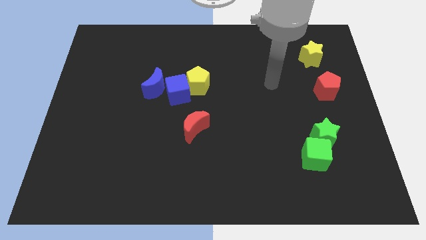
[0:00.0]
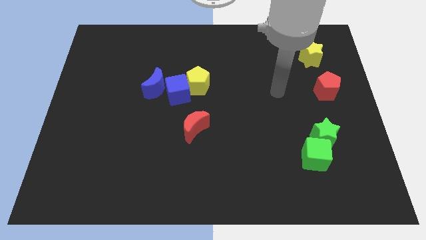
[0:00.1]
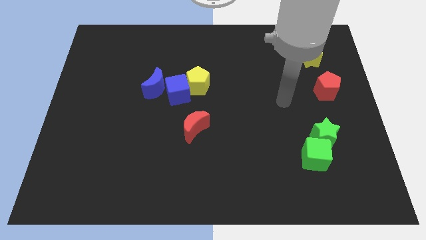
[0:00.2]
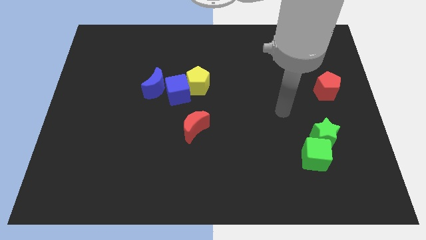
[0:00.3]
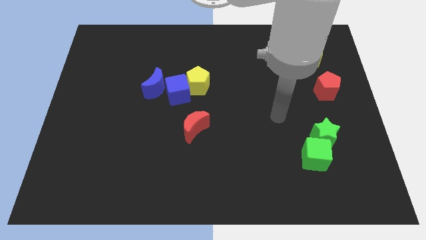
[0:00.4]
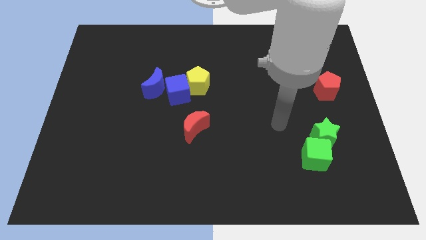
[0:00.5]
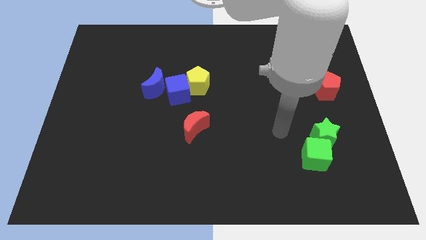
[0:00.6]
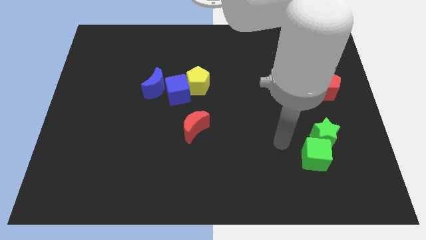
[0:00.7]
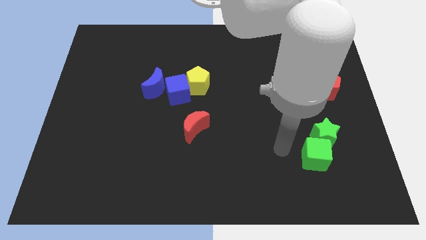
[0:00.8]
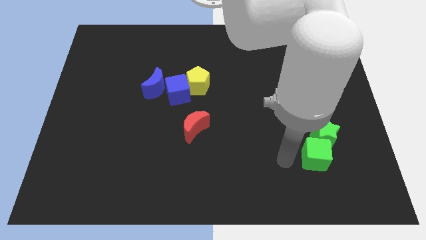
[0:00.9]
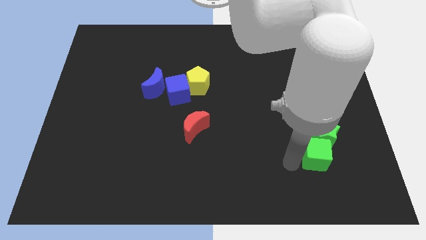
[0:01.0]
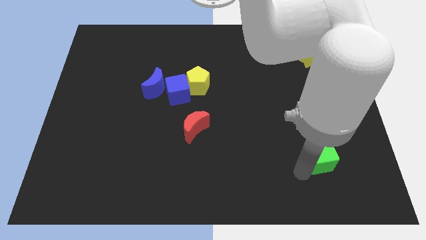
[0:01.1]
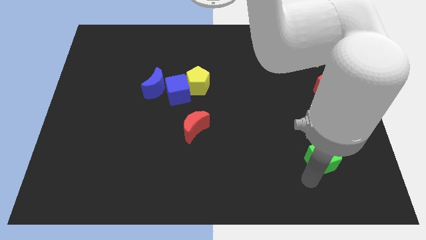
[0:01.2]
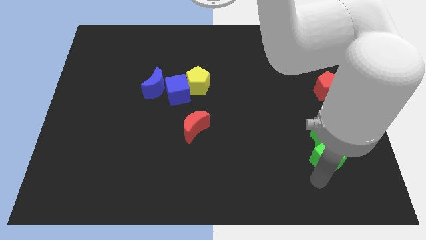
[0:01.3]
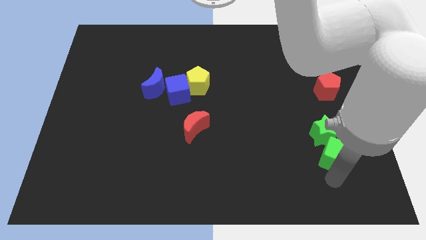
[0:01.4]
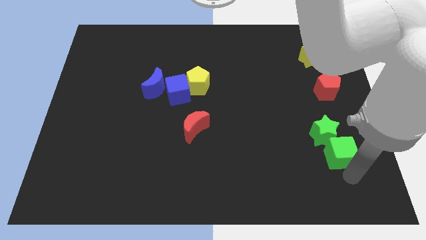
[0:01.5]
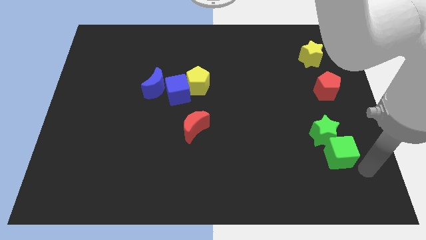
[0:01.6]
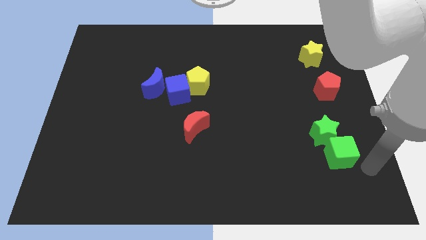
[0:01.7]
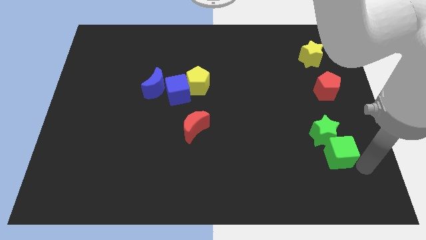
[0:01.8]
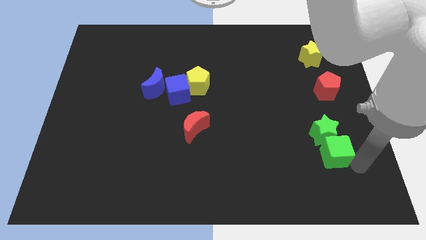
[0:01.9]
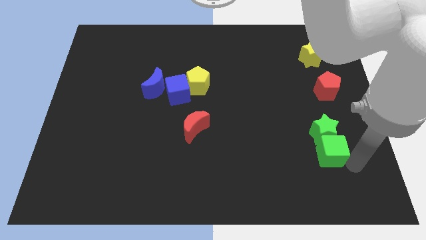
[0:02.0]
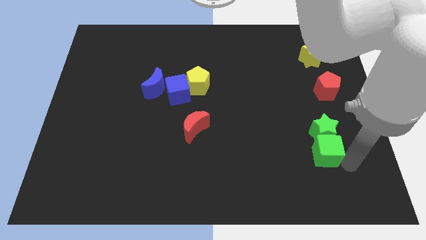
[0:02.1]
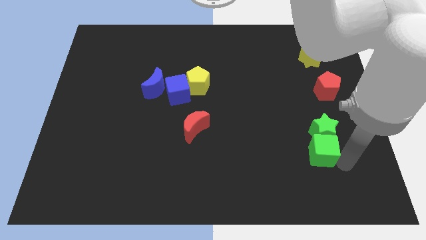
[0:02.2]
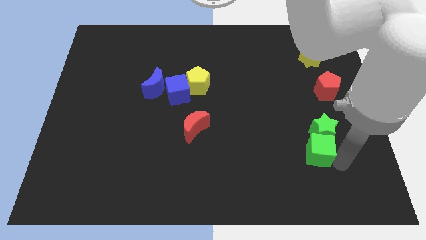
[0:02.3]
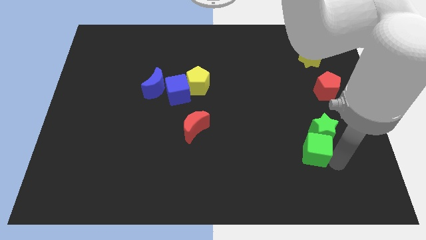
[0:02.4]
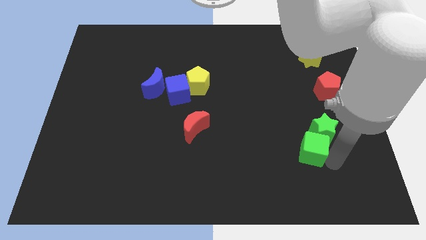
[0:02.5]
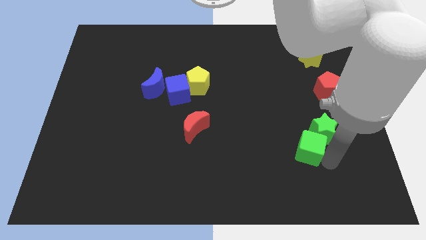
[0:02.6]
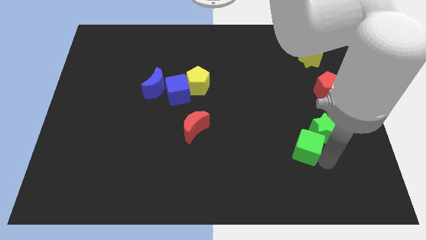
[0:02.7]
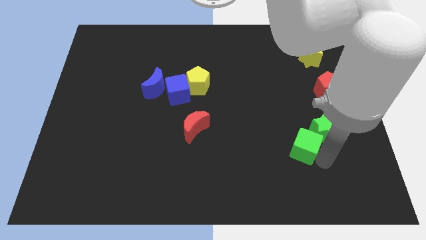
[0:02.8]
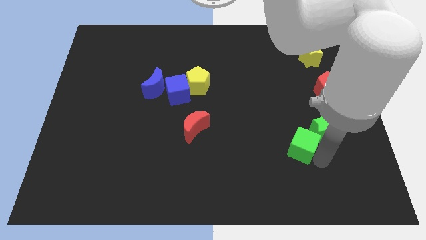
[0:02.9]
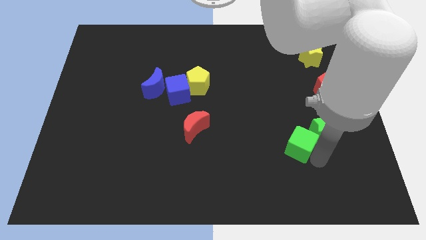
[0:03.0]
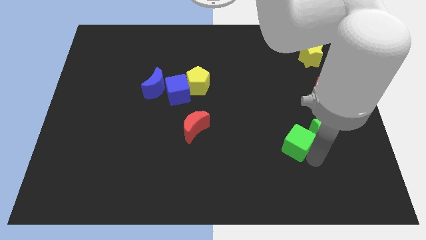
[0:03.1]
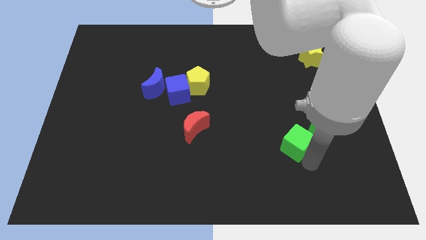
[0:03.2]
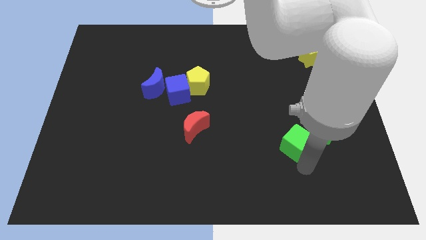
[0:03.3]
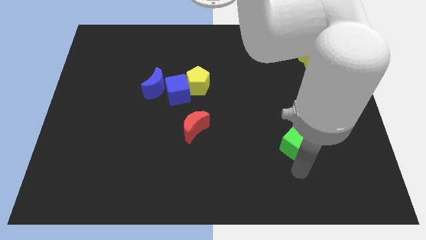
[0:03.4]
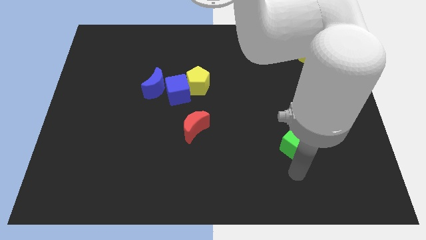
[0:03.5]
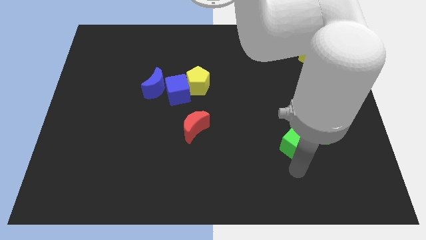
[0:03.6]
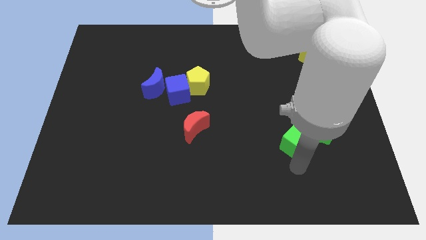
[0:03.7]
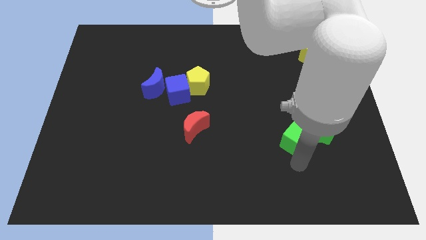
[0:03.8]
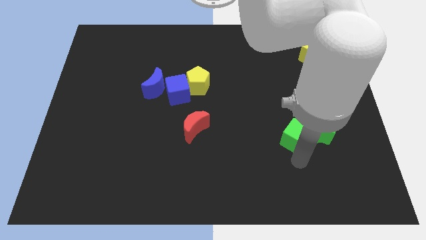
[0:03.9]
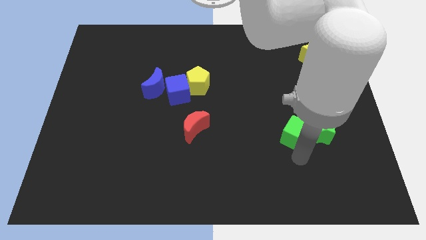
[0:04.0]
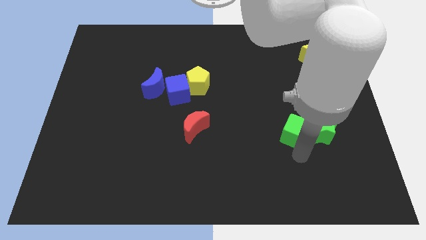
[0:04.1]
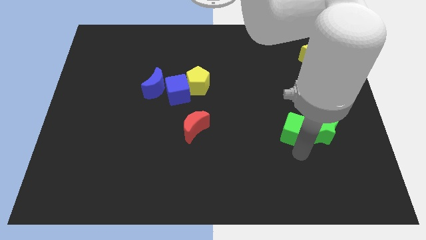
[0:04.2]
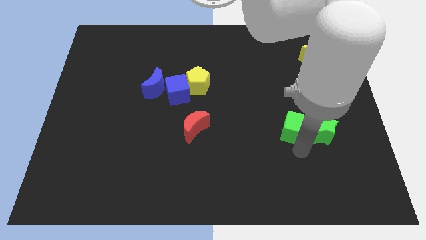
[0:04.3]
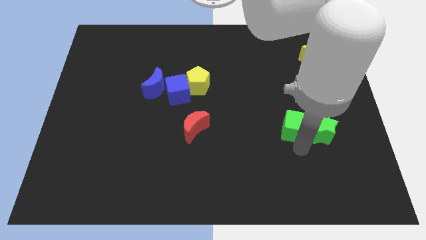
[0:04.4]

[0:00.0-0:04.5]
slide the green cube slightly up

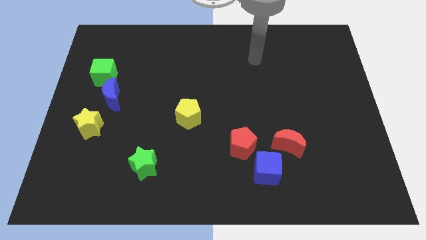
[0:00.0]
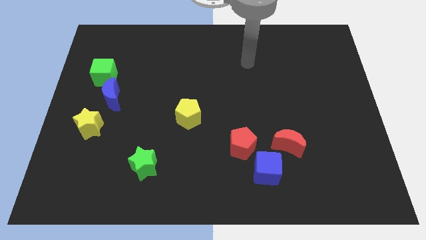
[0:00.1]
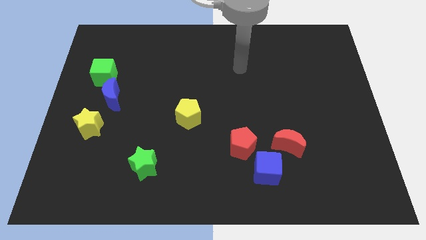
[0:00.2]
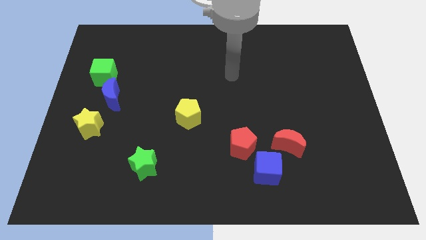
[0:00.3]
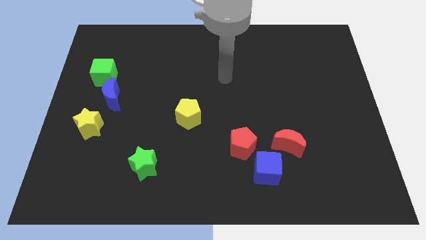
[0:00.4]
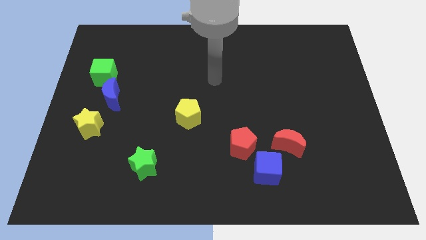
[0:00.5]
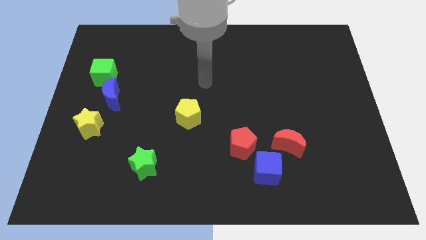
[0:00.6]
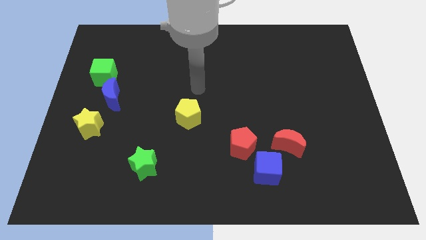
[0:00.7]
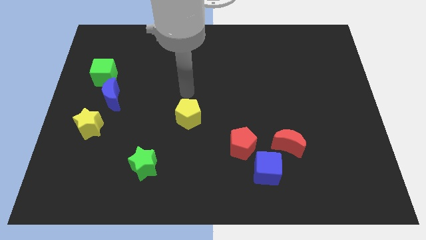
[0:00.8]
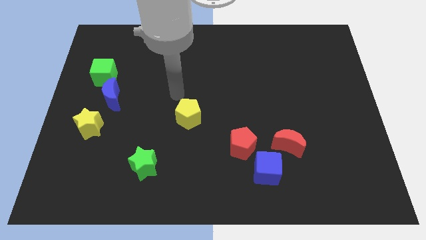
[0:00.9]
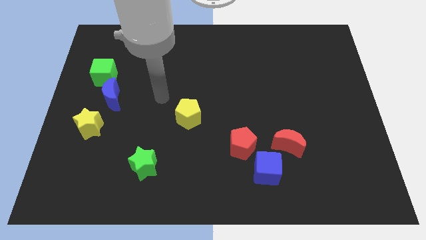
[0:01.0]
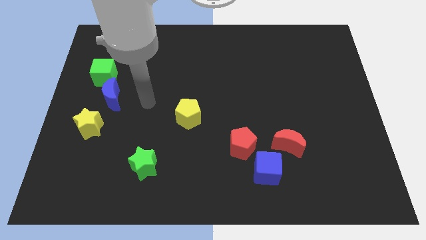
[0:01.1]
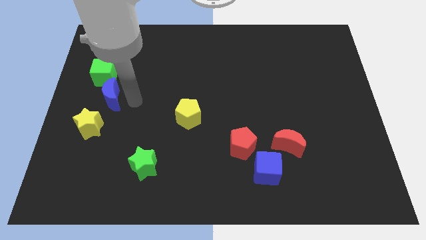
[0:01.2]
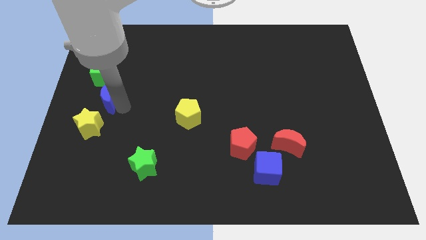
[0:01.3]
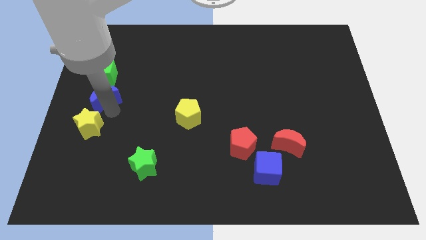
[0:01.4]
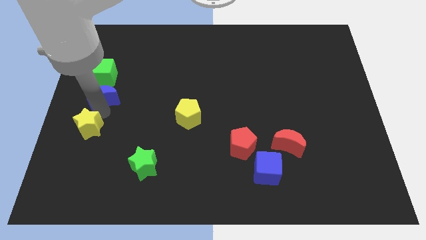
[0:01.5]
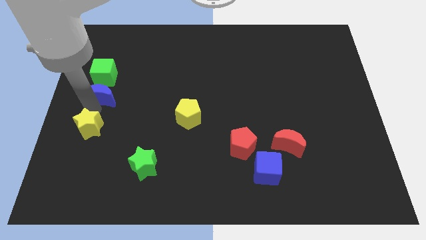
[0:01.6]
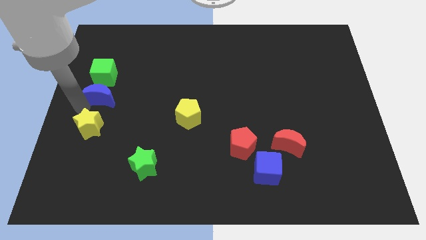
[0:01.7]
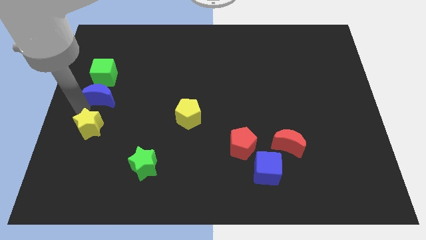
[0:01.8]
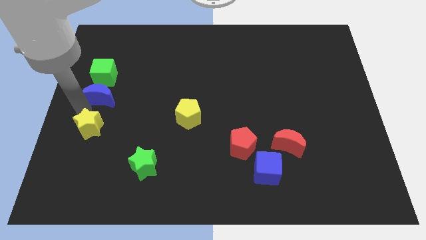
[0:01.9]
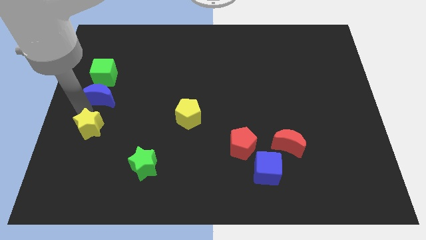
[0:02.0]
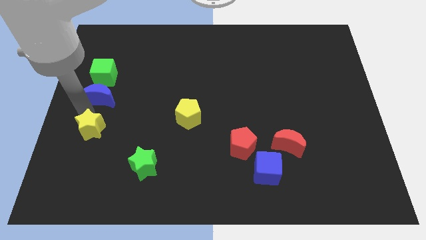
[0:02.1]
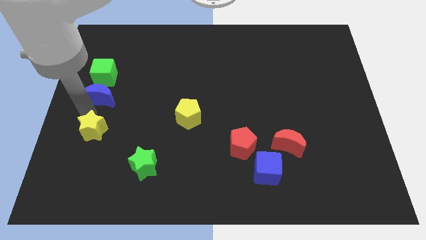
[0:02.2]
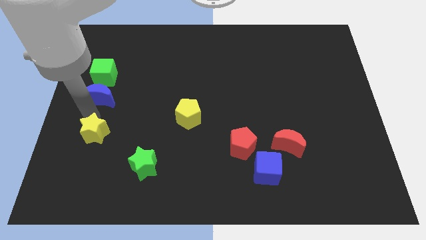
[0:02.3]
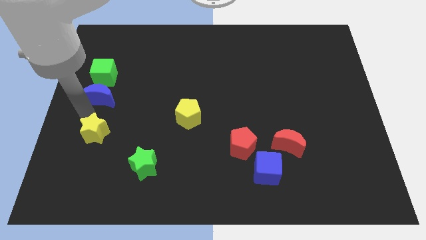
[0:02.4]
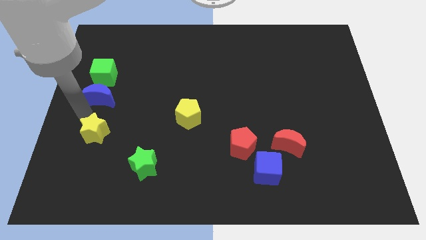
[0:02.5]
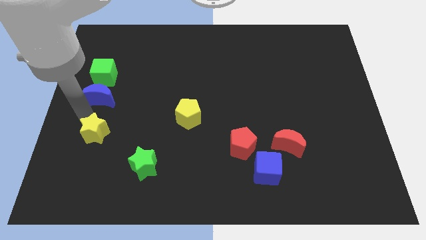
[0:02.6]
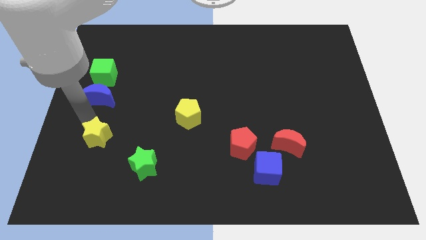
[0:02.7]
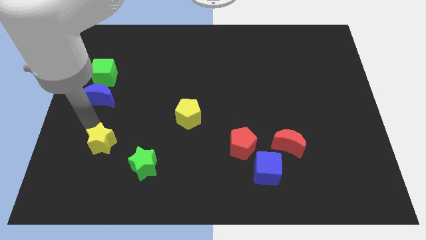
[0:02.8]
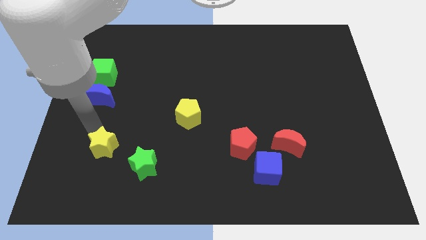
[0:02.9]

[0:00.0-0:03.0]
push the yellow star diagonally downwards and right slightly

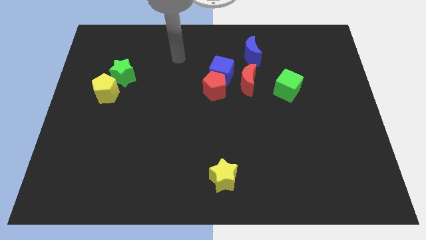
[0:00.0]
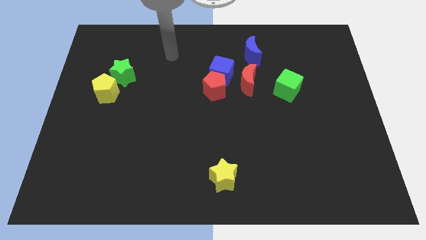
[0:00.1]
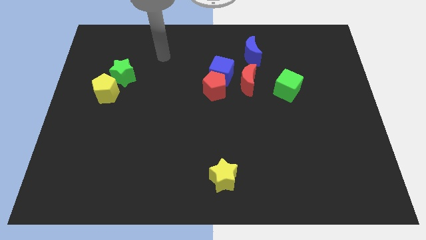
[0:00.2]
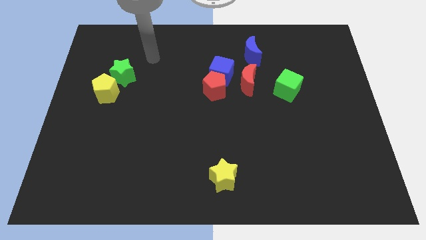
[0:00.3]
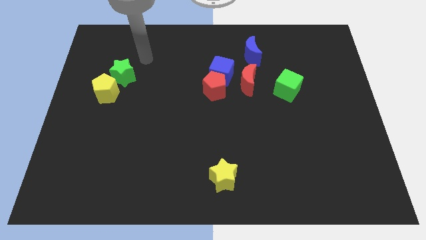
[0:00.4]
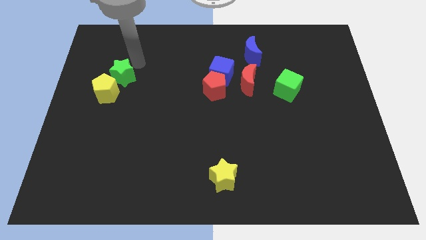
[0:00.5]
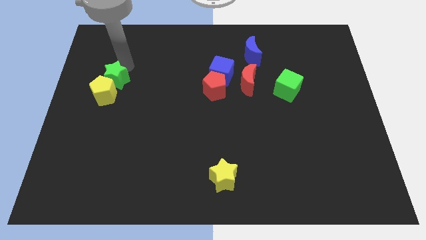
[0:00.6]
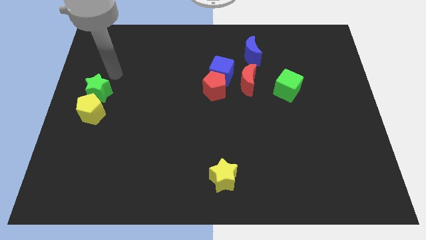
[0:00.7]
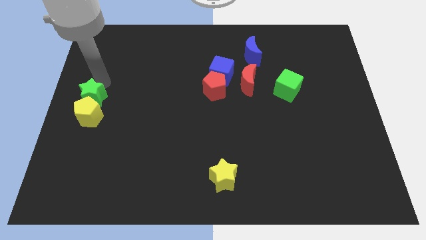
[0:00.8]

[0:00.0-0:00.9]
slightly move the yellow pentagon downwards
